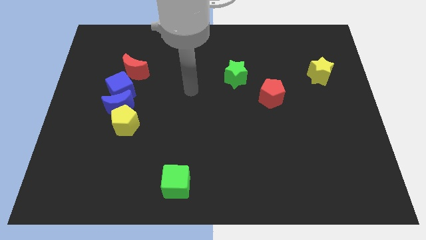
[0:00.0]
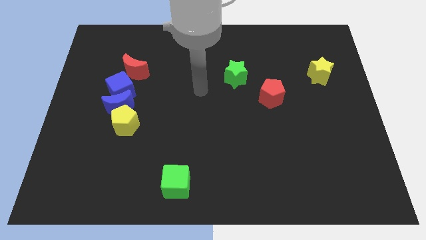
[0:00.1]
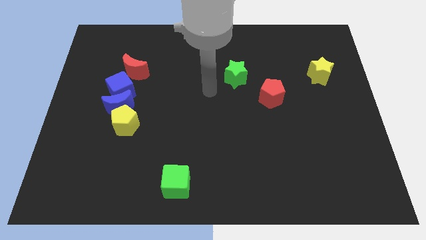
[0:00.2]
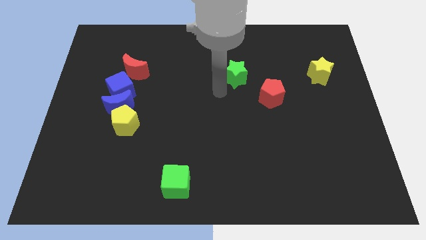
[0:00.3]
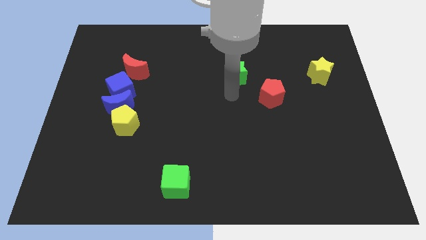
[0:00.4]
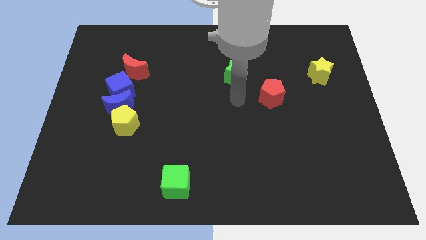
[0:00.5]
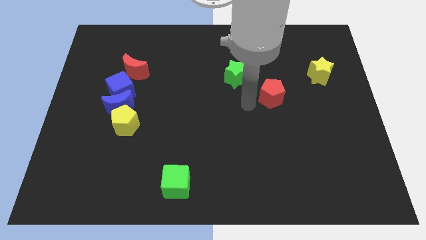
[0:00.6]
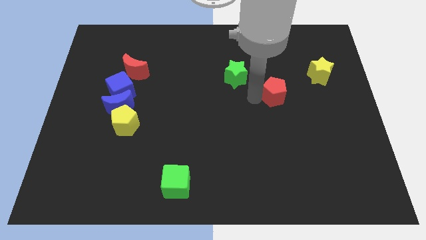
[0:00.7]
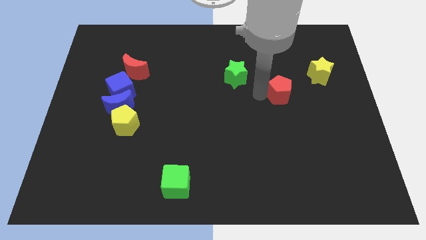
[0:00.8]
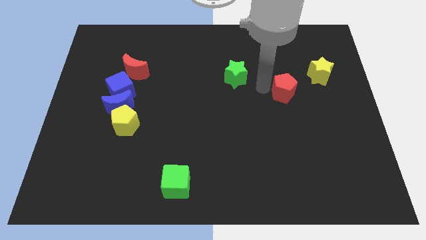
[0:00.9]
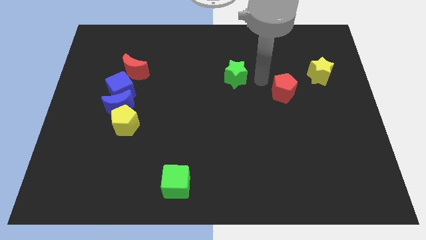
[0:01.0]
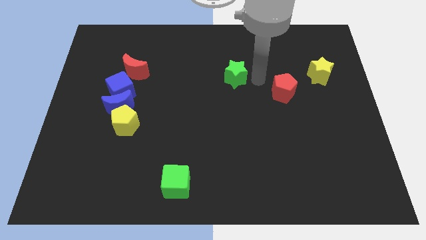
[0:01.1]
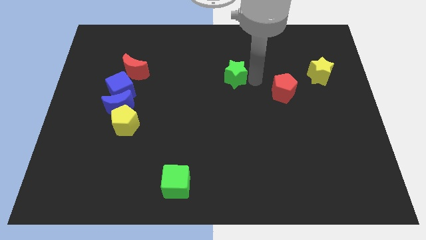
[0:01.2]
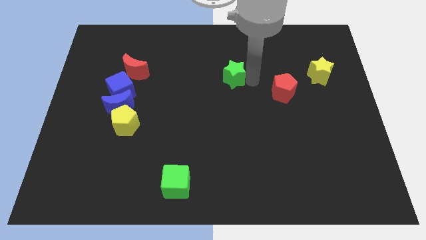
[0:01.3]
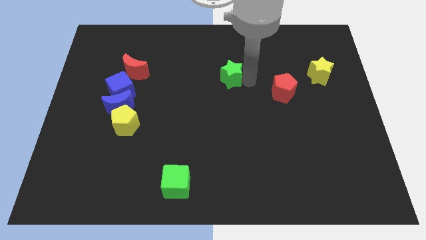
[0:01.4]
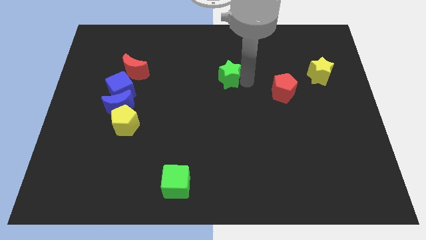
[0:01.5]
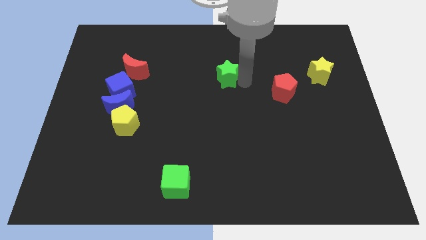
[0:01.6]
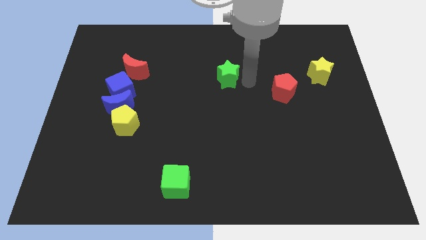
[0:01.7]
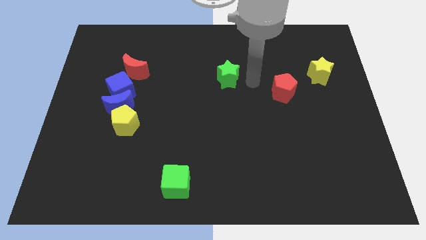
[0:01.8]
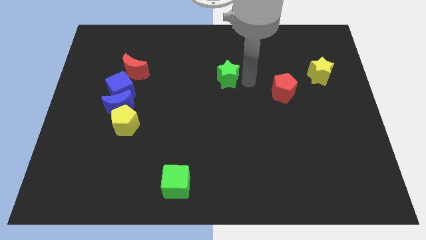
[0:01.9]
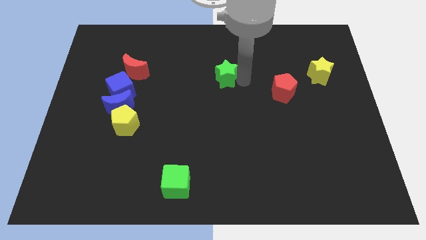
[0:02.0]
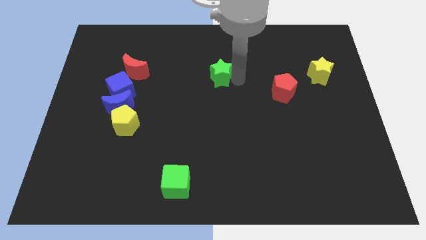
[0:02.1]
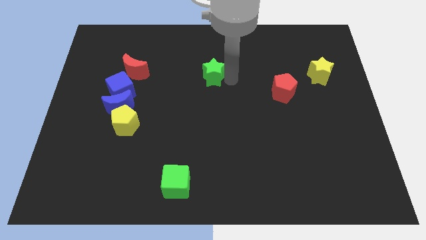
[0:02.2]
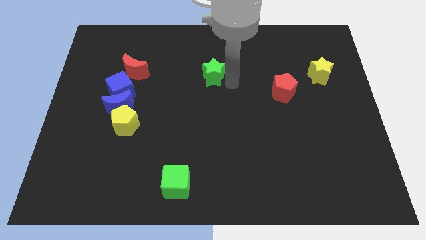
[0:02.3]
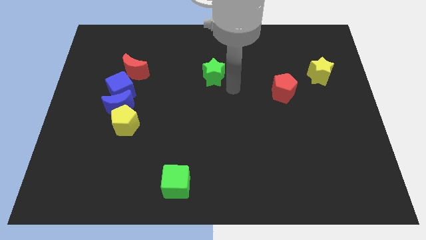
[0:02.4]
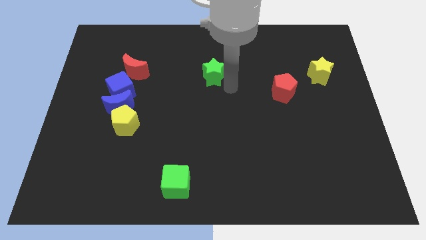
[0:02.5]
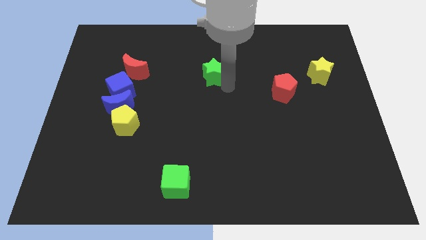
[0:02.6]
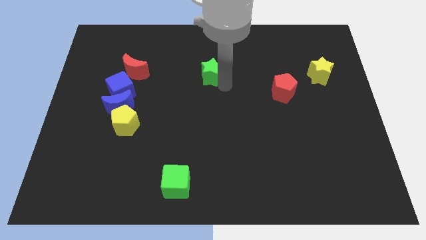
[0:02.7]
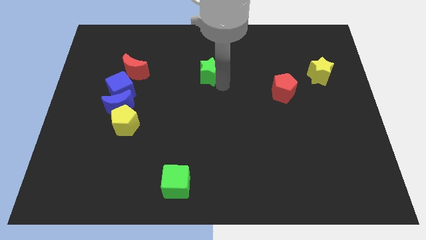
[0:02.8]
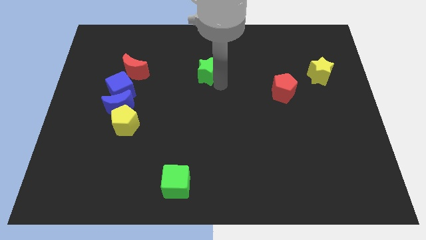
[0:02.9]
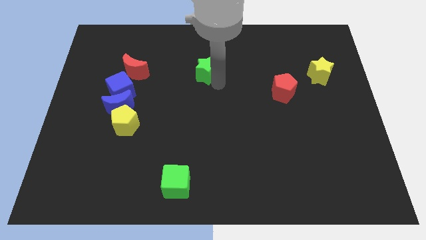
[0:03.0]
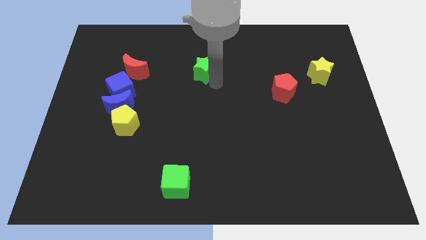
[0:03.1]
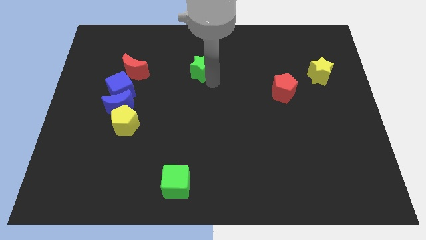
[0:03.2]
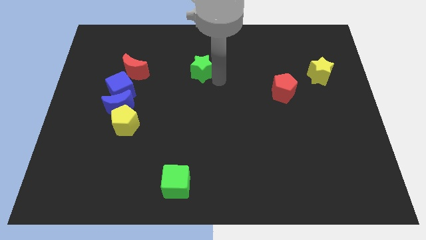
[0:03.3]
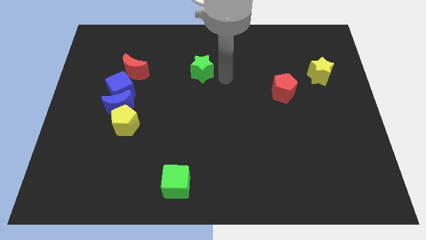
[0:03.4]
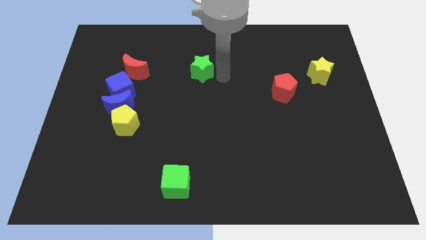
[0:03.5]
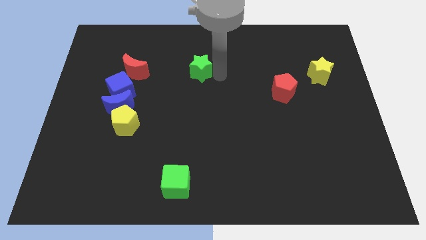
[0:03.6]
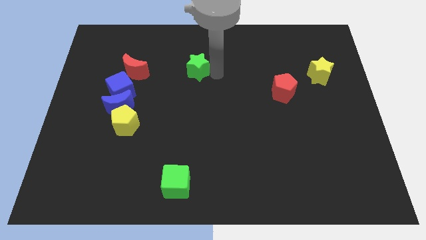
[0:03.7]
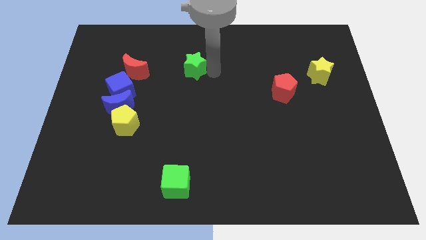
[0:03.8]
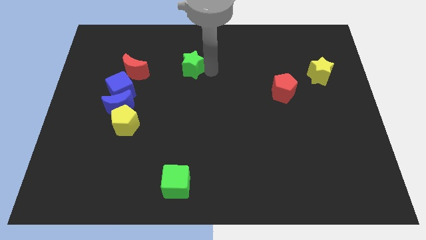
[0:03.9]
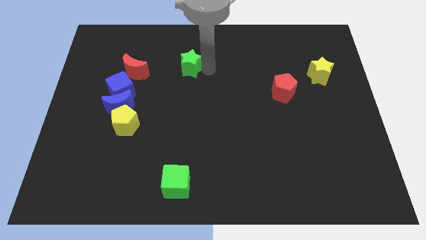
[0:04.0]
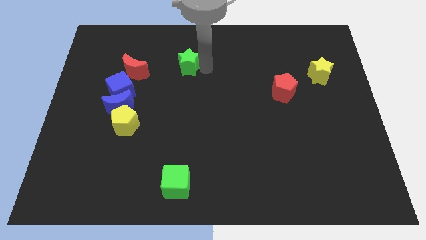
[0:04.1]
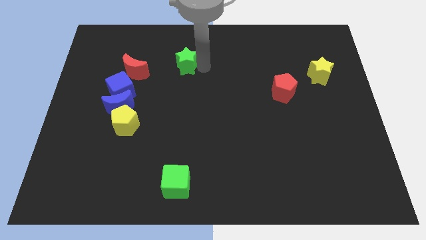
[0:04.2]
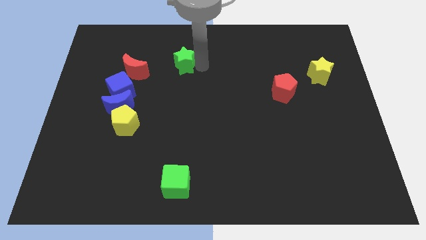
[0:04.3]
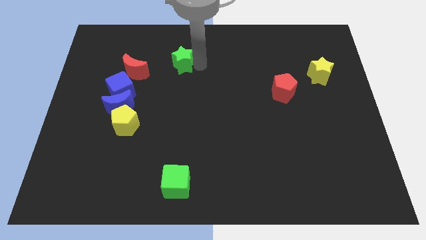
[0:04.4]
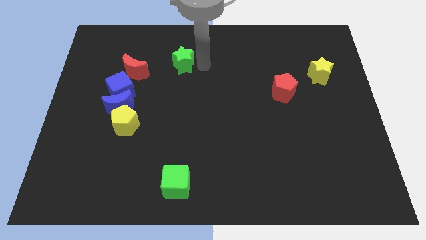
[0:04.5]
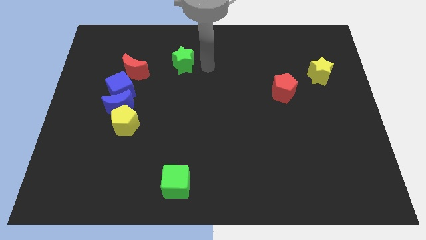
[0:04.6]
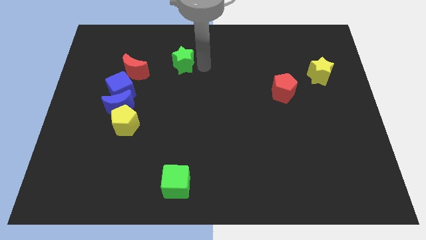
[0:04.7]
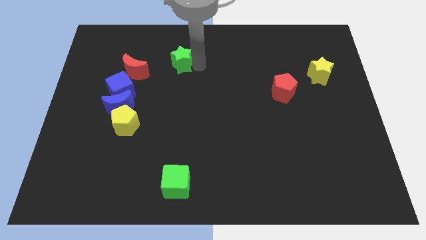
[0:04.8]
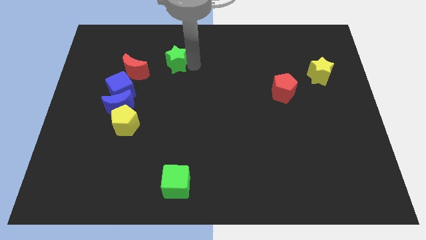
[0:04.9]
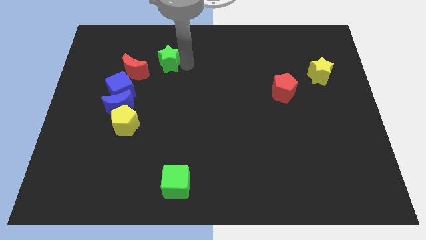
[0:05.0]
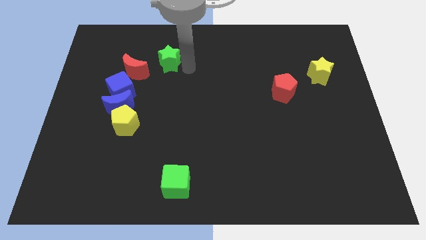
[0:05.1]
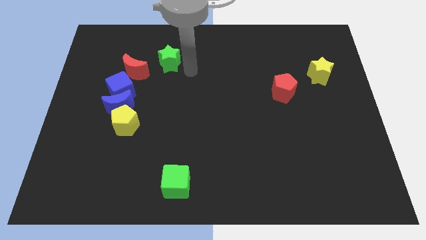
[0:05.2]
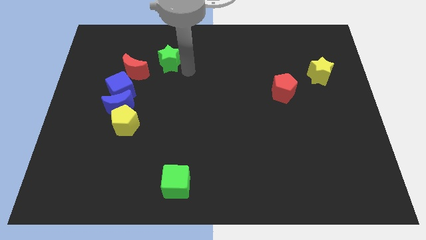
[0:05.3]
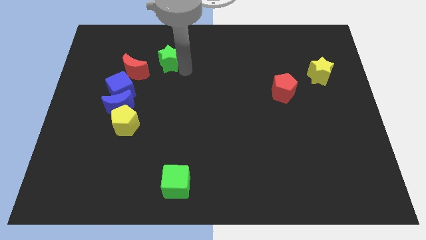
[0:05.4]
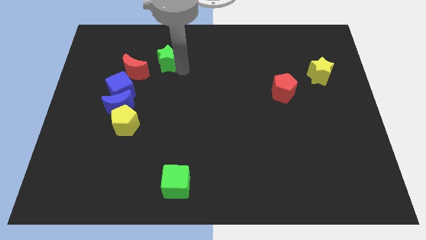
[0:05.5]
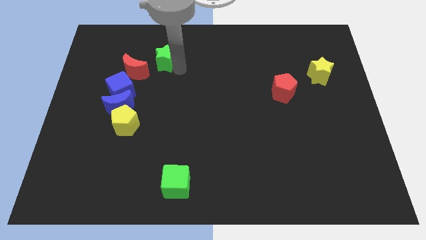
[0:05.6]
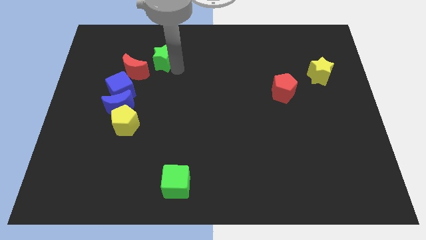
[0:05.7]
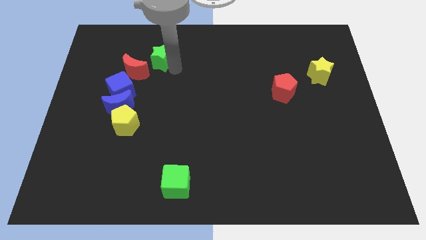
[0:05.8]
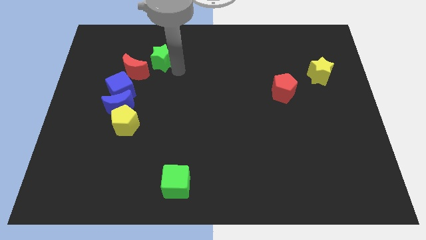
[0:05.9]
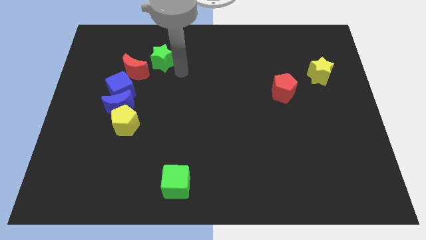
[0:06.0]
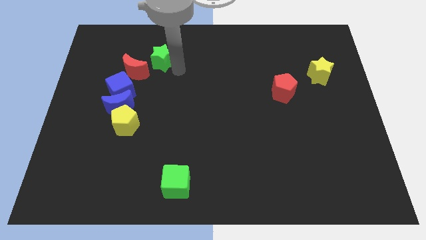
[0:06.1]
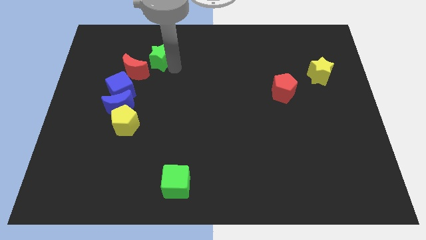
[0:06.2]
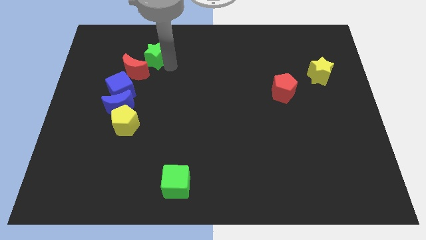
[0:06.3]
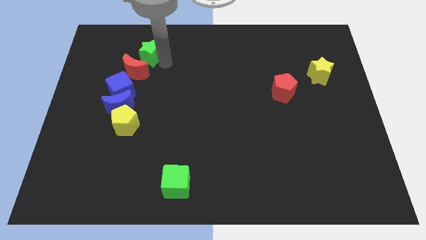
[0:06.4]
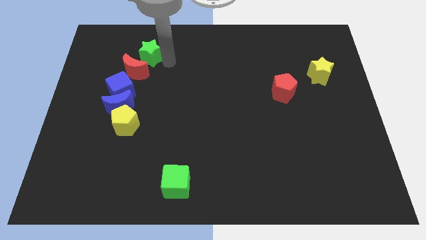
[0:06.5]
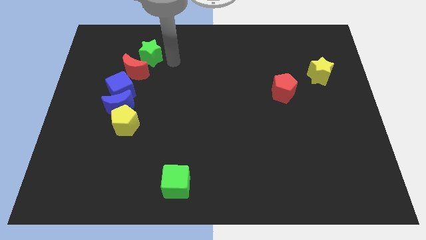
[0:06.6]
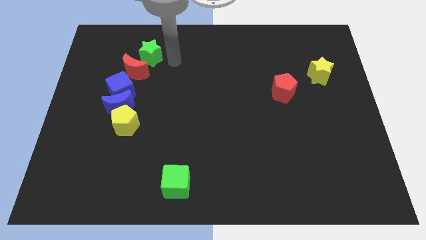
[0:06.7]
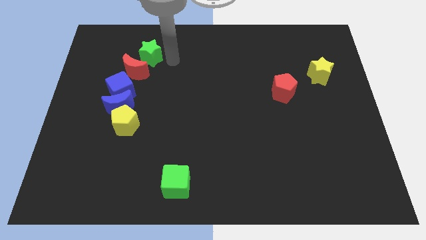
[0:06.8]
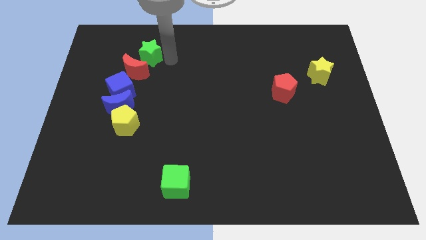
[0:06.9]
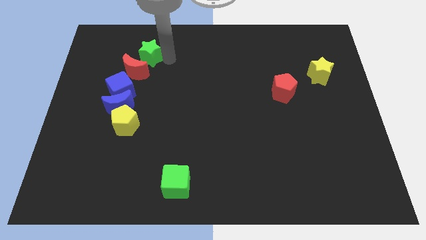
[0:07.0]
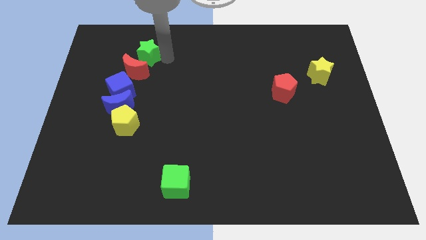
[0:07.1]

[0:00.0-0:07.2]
slide the green star left

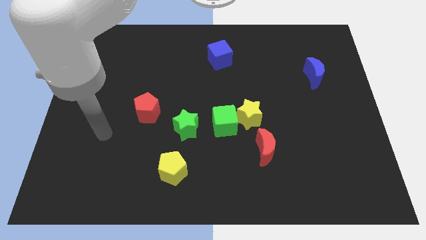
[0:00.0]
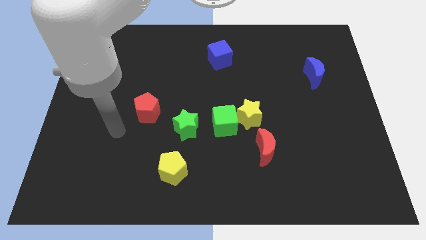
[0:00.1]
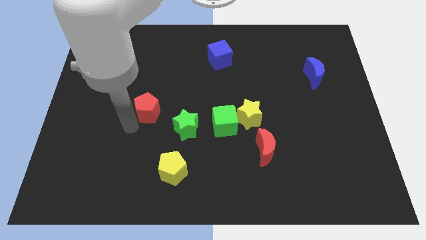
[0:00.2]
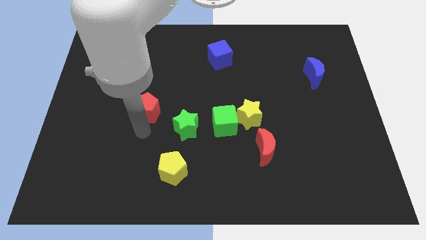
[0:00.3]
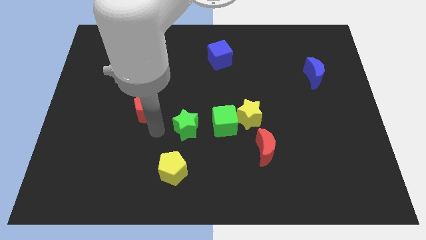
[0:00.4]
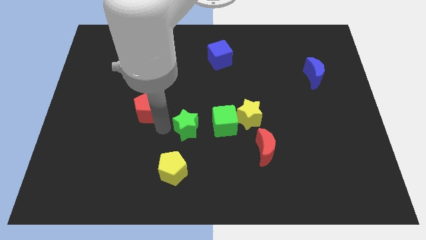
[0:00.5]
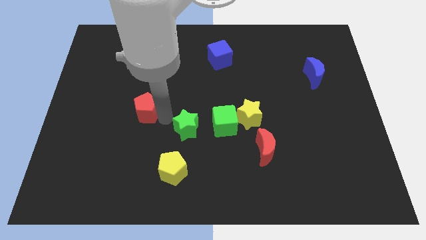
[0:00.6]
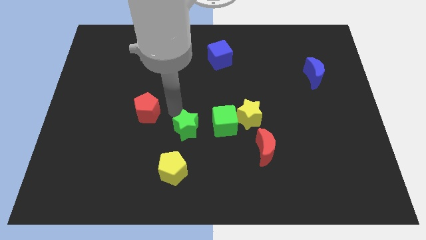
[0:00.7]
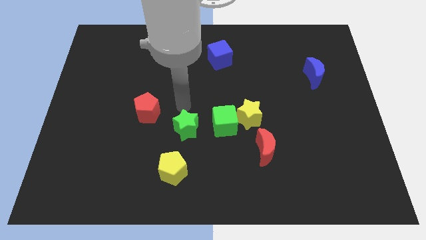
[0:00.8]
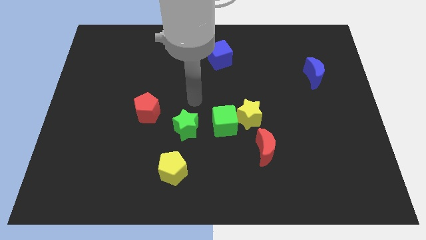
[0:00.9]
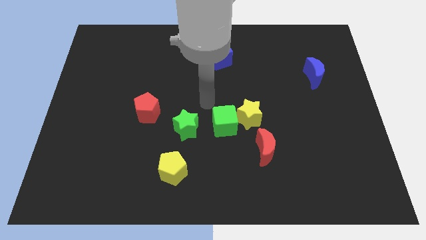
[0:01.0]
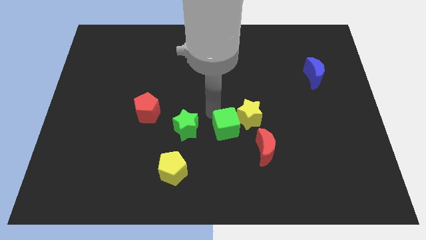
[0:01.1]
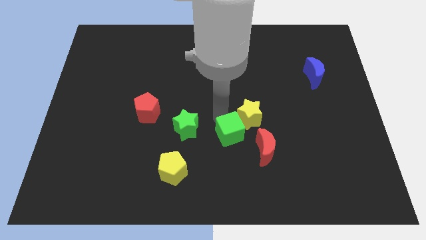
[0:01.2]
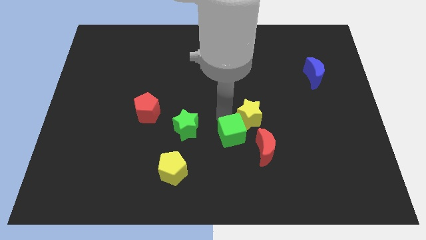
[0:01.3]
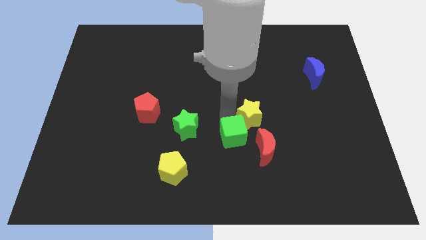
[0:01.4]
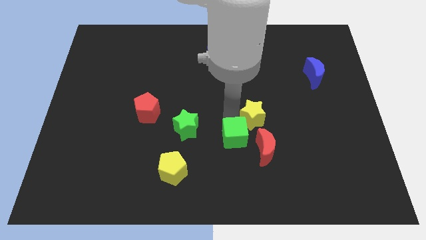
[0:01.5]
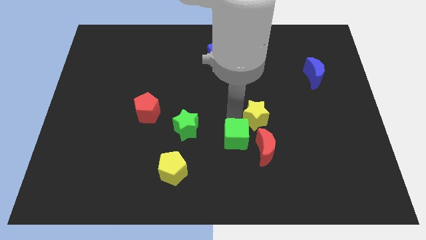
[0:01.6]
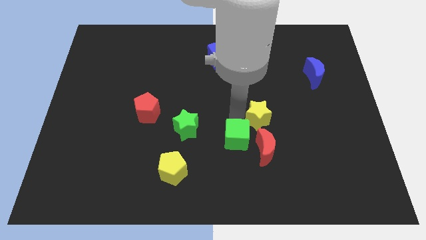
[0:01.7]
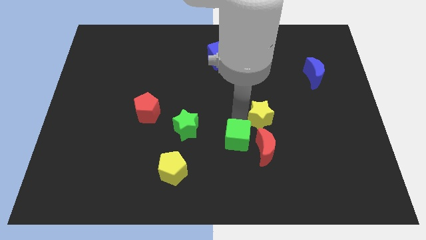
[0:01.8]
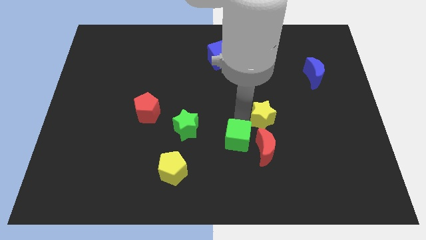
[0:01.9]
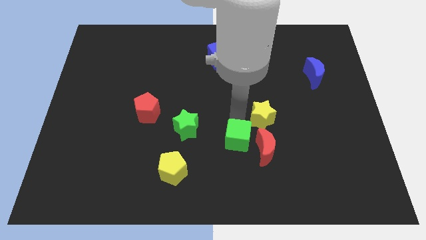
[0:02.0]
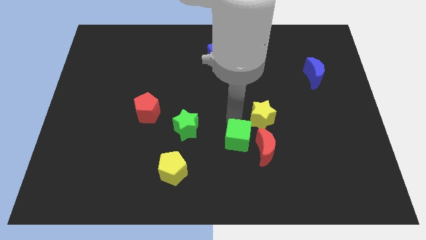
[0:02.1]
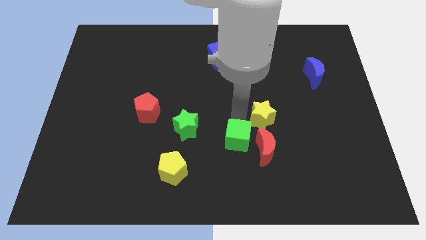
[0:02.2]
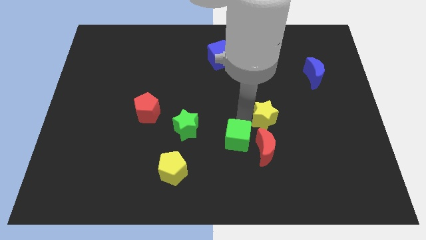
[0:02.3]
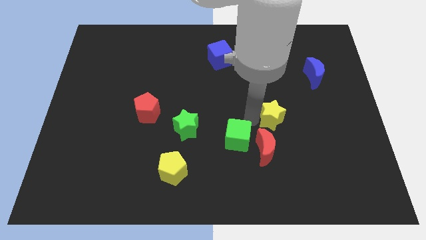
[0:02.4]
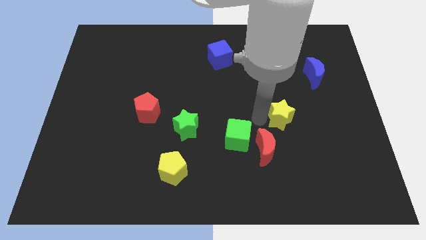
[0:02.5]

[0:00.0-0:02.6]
slide the yellow star a little bit to the right
